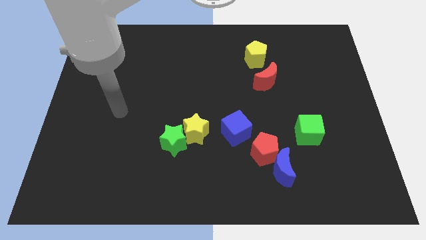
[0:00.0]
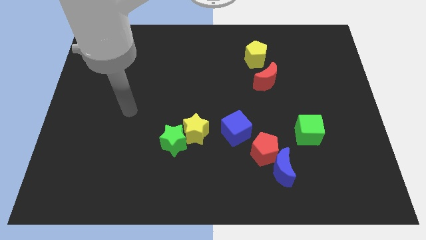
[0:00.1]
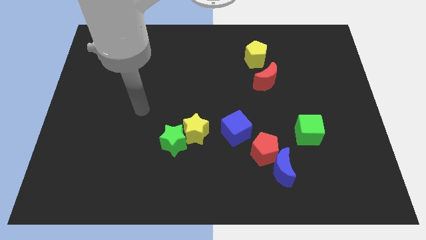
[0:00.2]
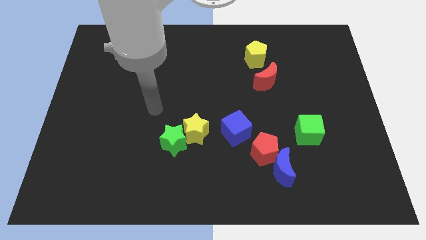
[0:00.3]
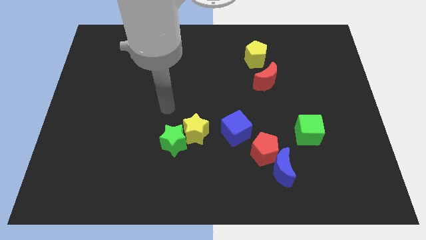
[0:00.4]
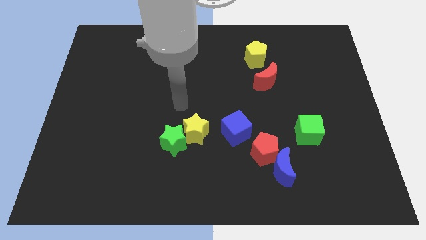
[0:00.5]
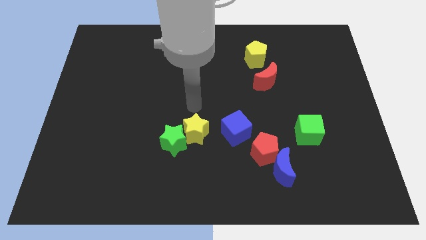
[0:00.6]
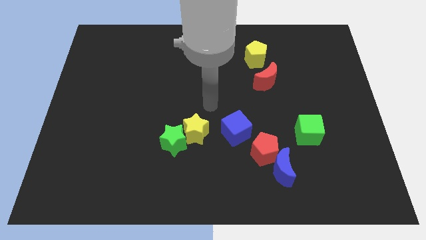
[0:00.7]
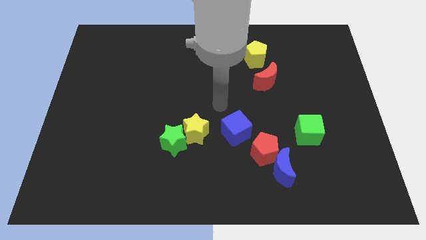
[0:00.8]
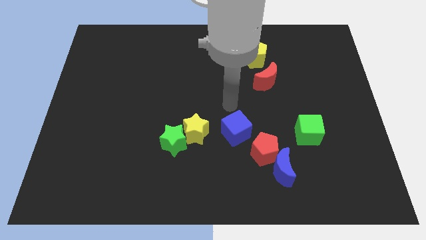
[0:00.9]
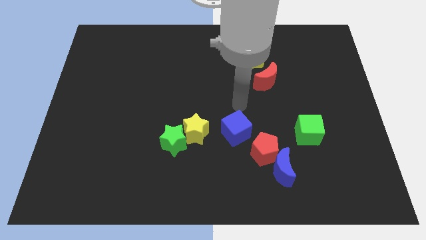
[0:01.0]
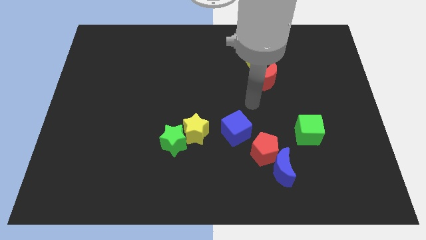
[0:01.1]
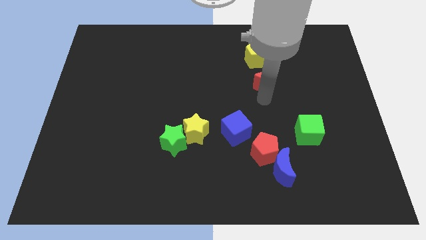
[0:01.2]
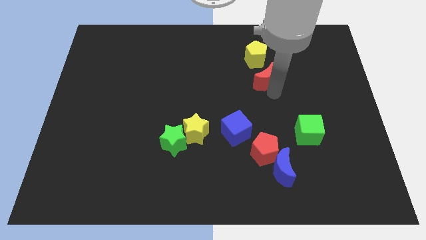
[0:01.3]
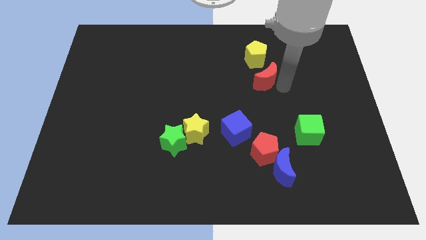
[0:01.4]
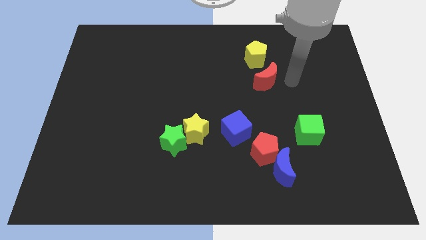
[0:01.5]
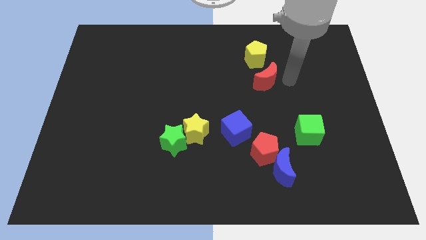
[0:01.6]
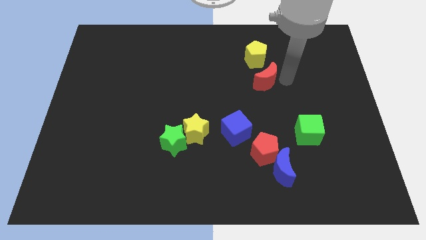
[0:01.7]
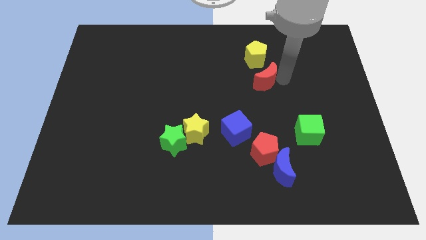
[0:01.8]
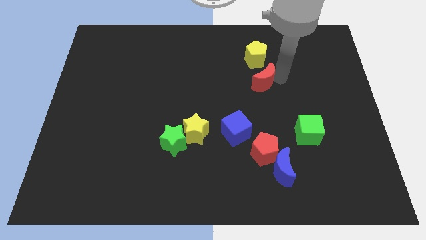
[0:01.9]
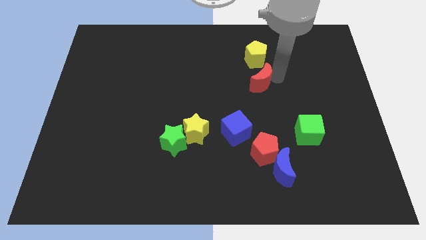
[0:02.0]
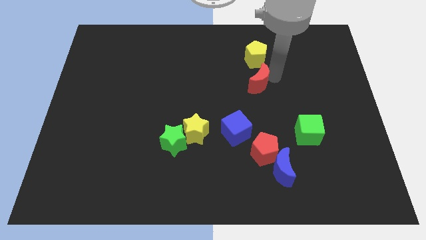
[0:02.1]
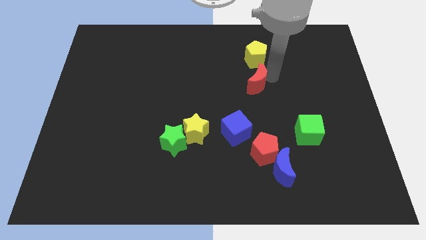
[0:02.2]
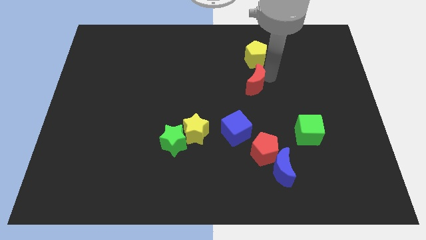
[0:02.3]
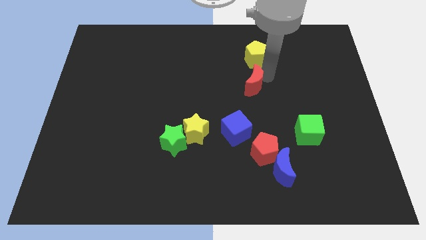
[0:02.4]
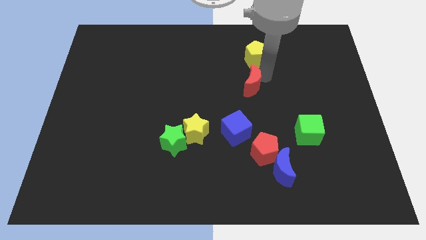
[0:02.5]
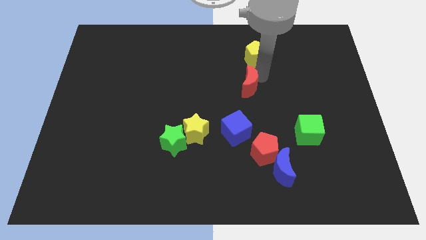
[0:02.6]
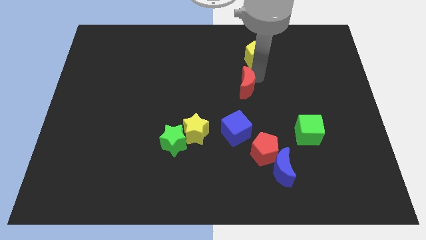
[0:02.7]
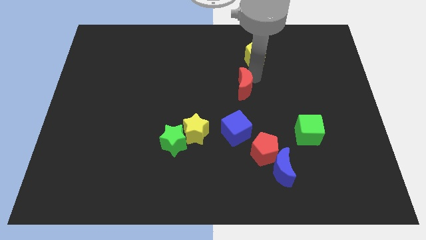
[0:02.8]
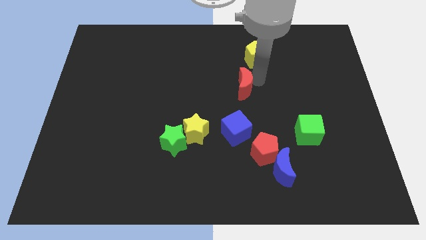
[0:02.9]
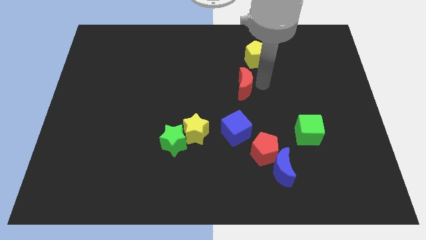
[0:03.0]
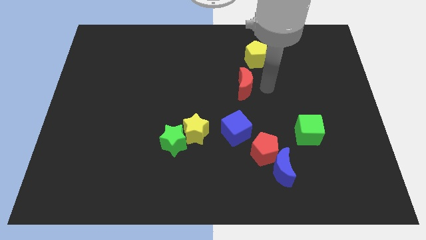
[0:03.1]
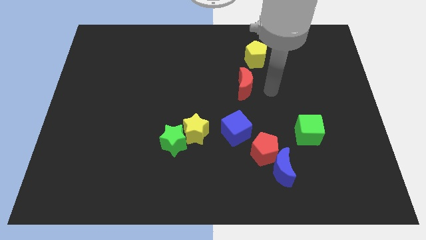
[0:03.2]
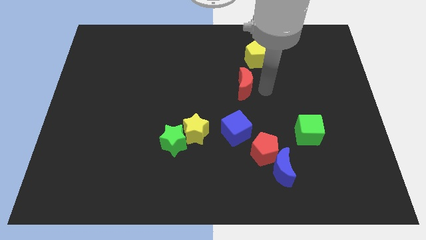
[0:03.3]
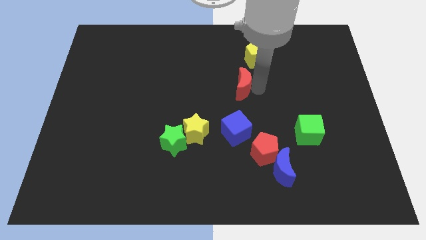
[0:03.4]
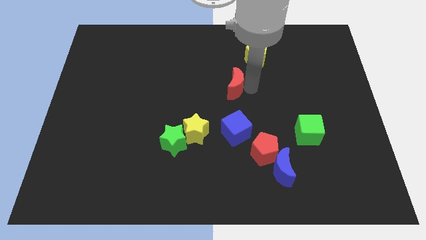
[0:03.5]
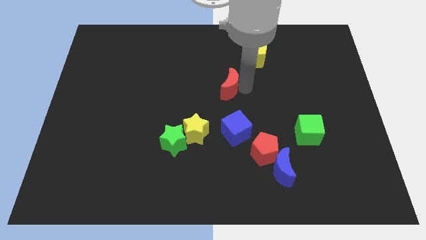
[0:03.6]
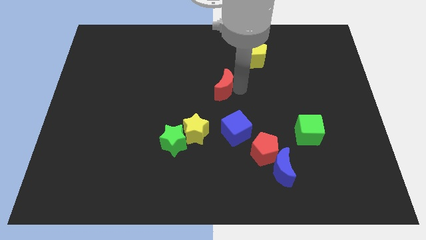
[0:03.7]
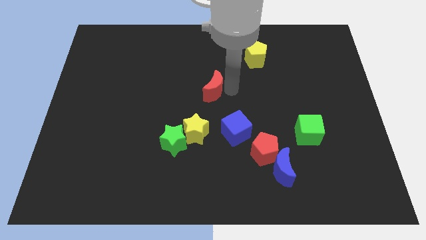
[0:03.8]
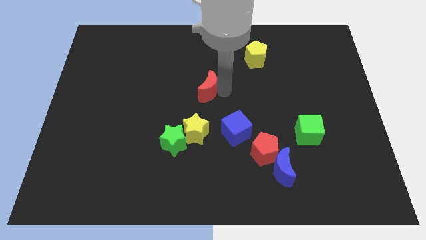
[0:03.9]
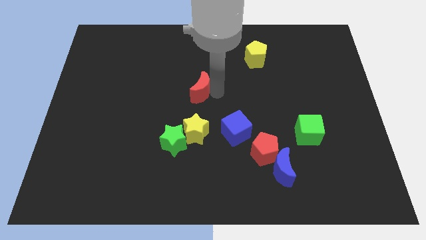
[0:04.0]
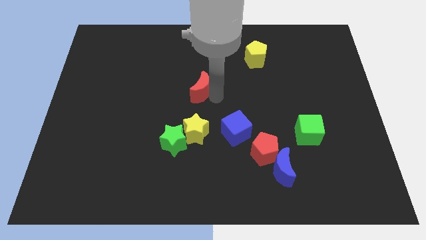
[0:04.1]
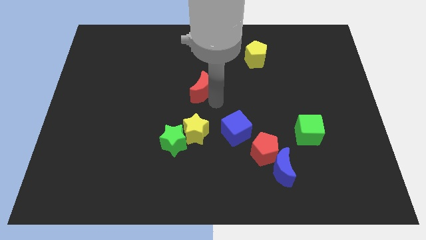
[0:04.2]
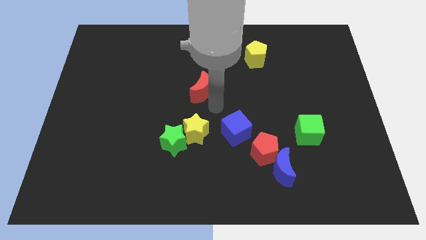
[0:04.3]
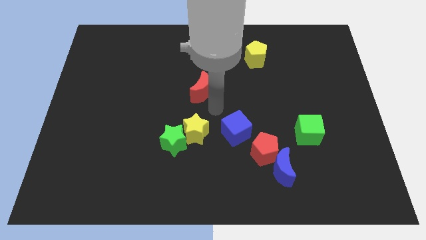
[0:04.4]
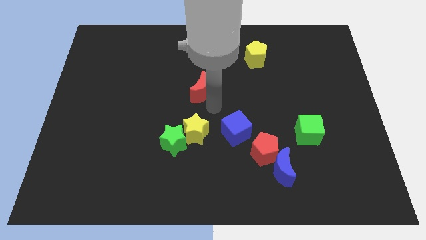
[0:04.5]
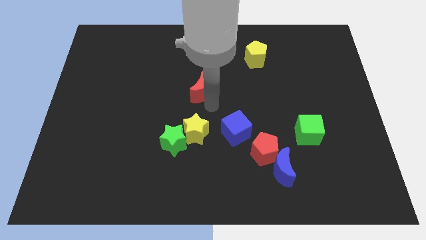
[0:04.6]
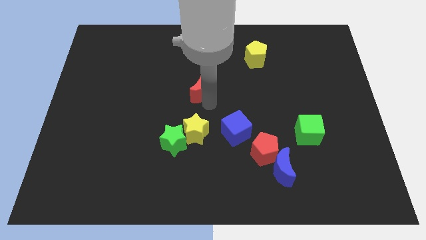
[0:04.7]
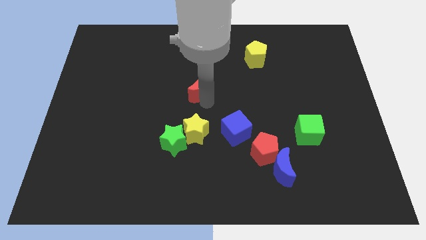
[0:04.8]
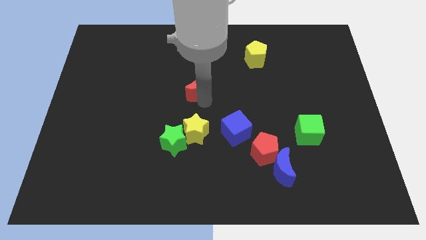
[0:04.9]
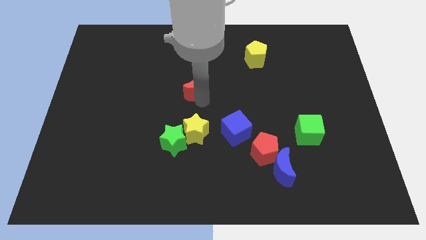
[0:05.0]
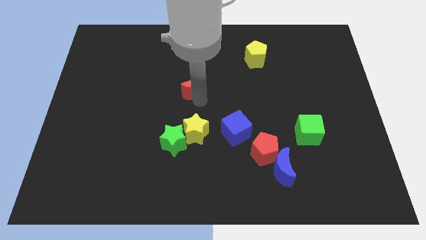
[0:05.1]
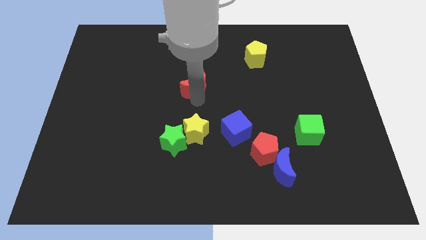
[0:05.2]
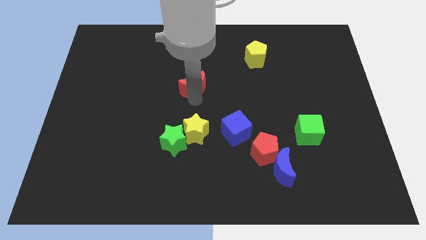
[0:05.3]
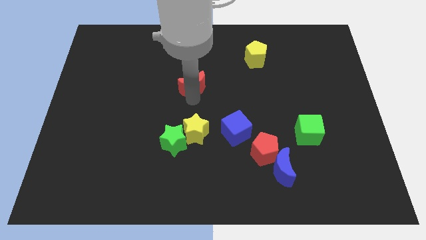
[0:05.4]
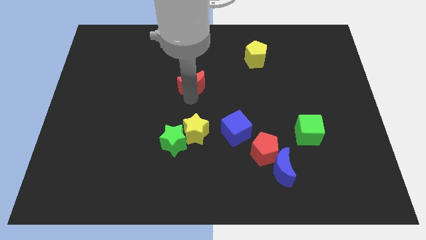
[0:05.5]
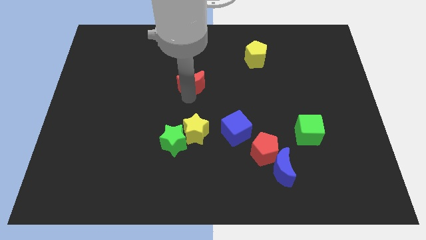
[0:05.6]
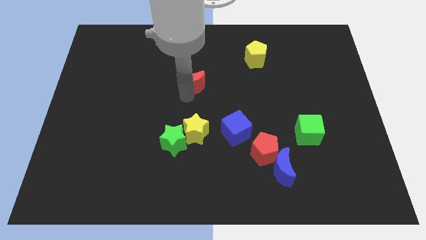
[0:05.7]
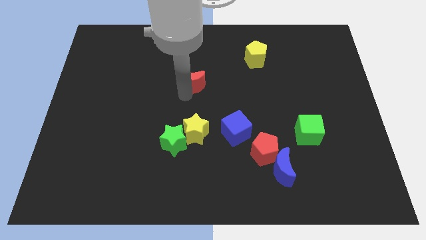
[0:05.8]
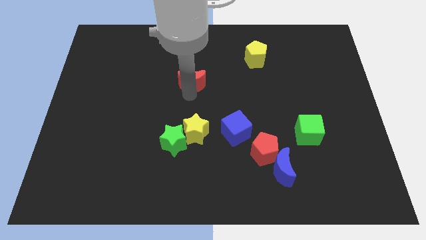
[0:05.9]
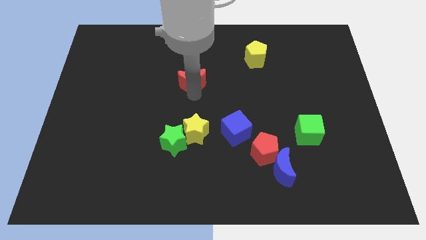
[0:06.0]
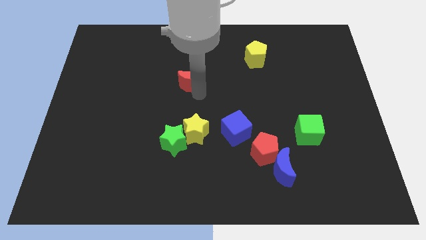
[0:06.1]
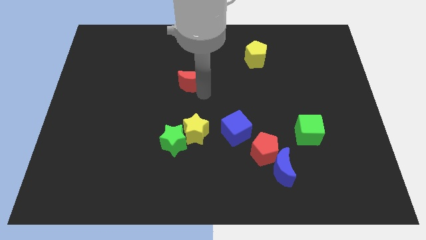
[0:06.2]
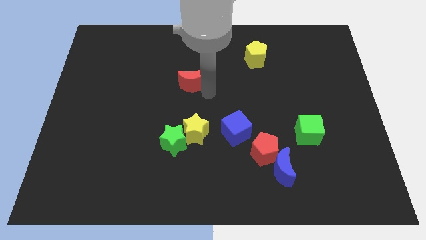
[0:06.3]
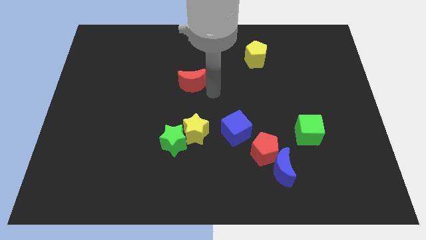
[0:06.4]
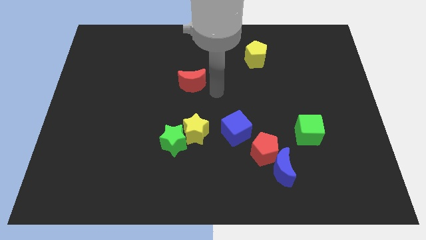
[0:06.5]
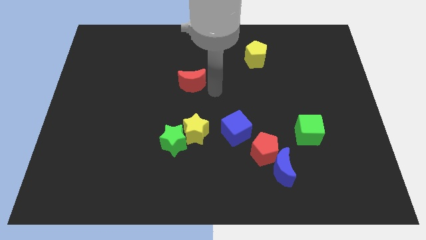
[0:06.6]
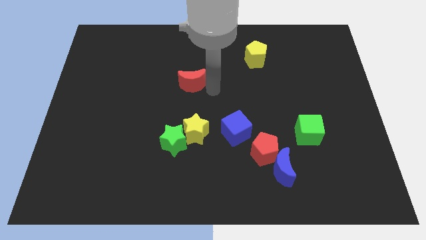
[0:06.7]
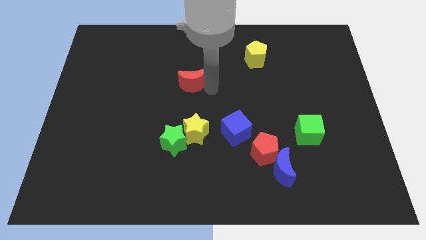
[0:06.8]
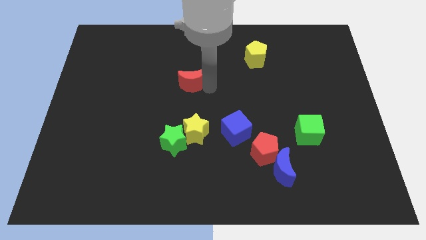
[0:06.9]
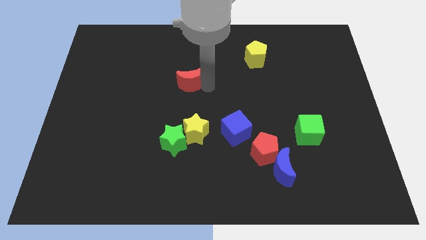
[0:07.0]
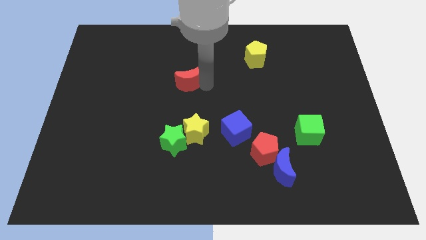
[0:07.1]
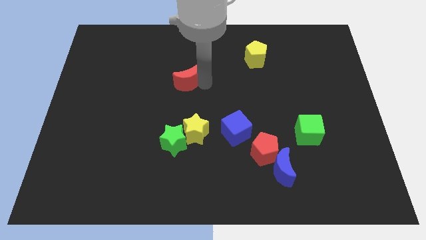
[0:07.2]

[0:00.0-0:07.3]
move the red moon to the left

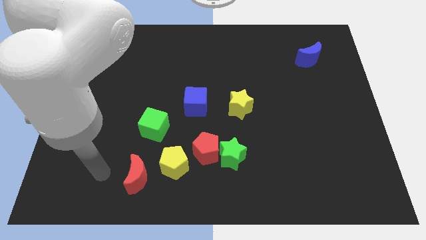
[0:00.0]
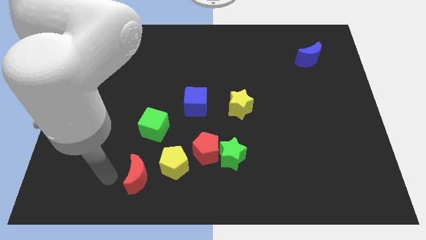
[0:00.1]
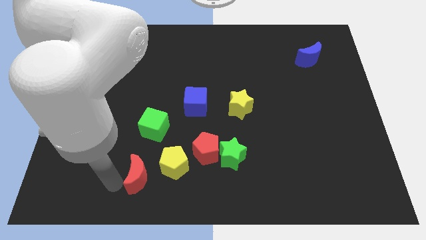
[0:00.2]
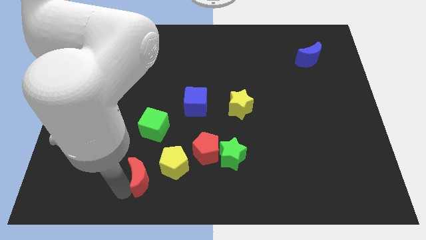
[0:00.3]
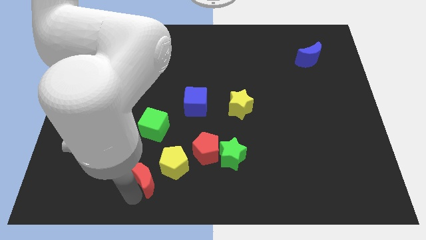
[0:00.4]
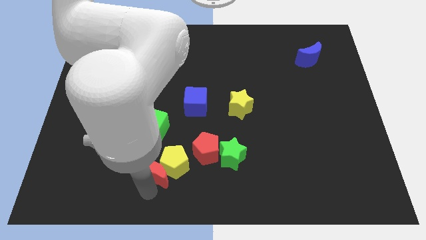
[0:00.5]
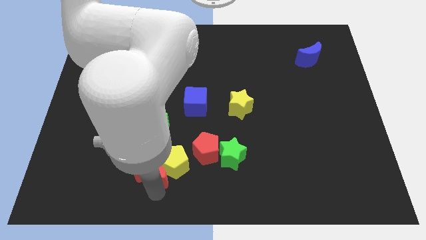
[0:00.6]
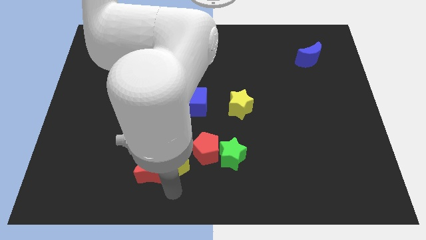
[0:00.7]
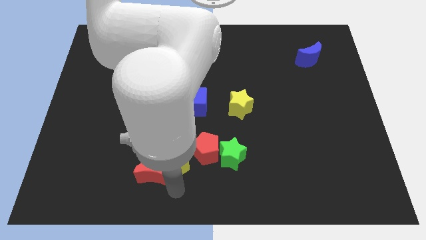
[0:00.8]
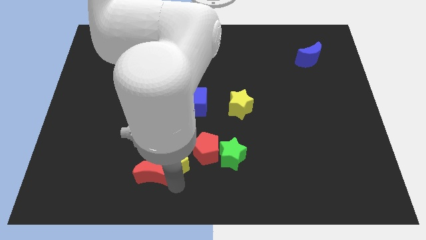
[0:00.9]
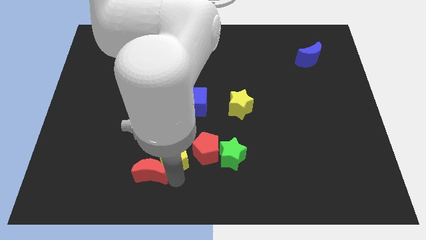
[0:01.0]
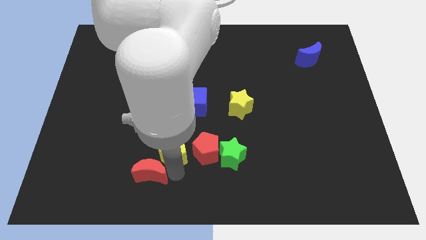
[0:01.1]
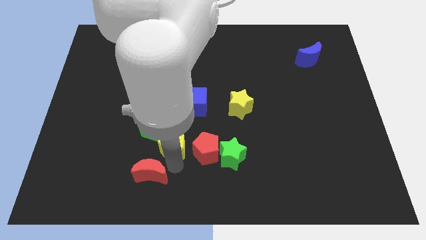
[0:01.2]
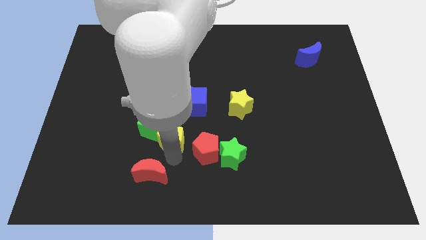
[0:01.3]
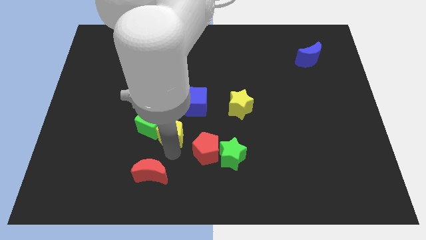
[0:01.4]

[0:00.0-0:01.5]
slightly move the yellow pentagon up
